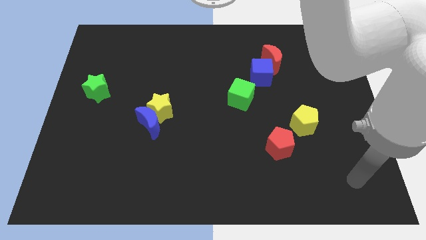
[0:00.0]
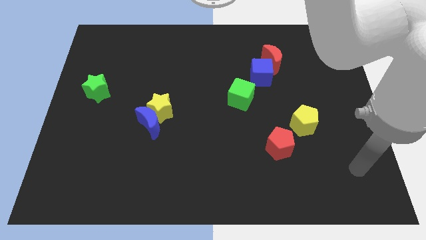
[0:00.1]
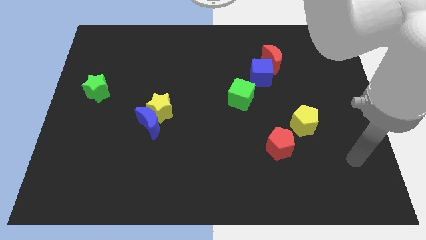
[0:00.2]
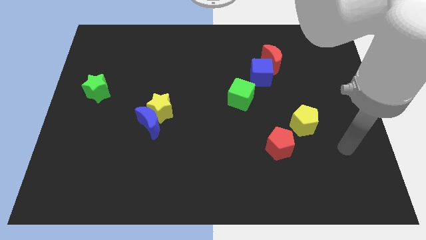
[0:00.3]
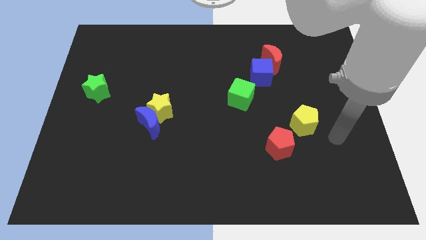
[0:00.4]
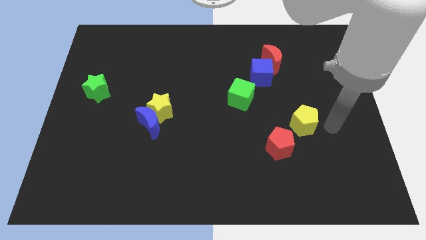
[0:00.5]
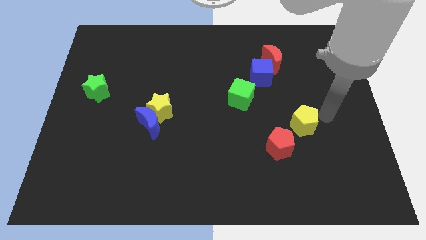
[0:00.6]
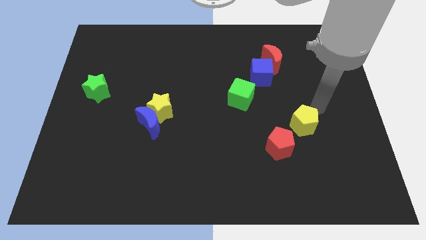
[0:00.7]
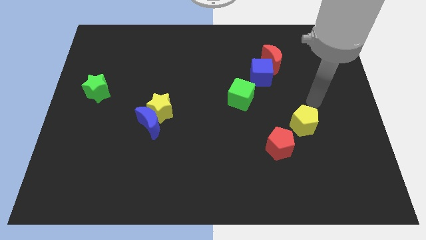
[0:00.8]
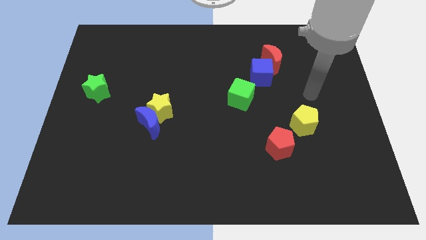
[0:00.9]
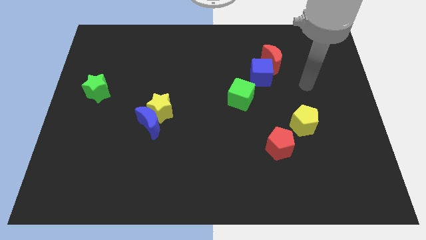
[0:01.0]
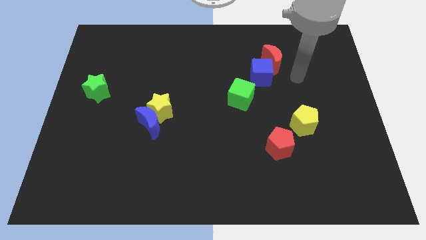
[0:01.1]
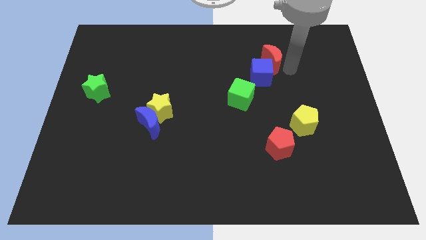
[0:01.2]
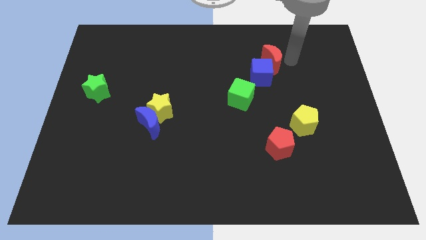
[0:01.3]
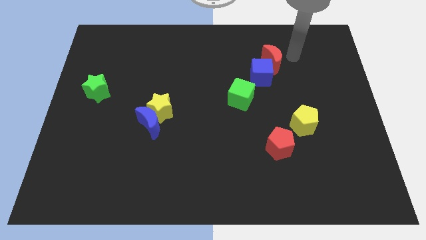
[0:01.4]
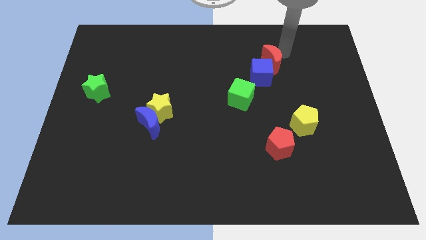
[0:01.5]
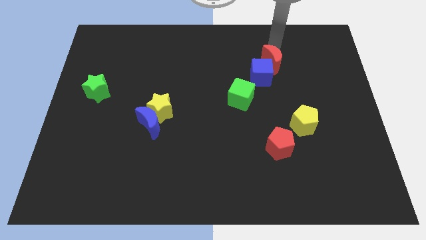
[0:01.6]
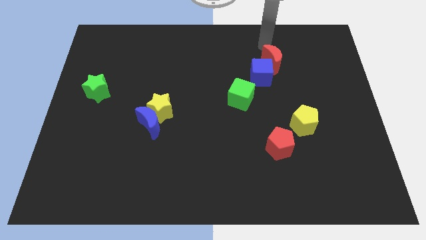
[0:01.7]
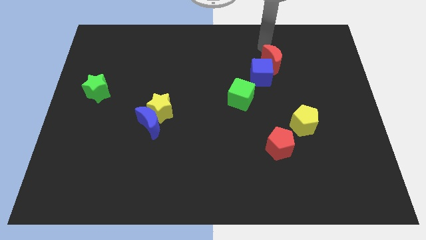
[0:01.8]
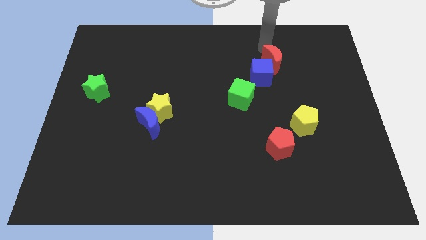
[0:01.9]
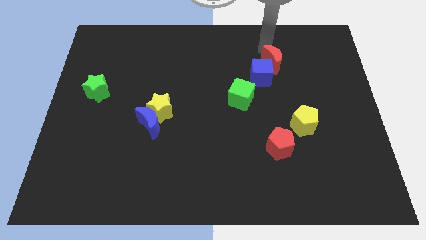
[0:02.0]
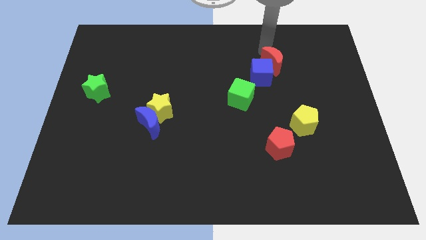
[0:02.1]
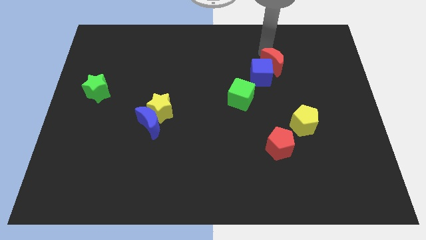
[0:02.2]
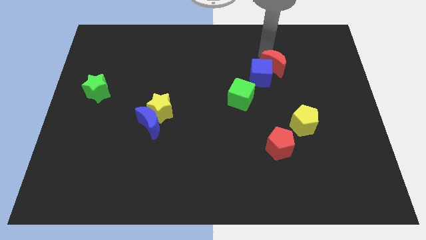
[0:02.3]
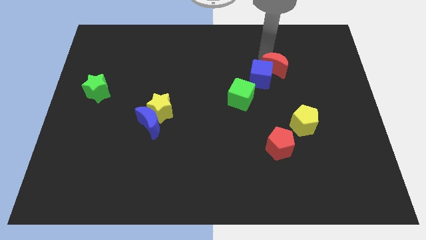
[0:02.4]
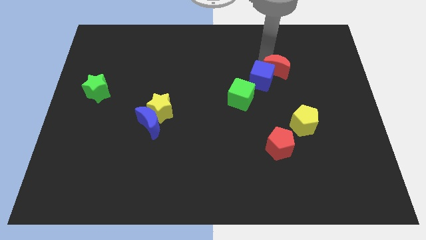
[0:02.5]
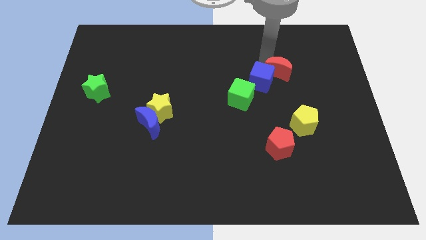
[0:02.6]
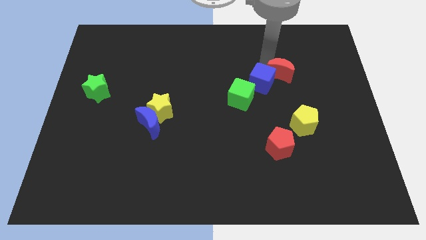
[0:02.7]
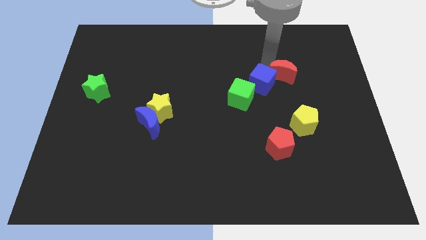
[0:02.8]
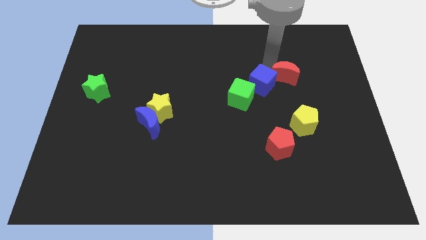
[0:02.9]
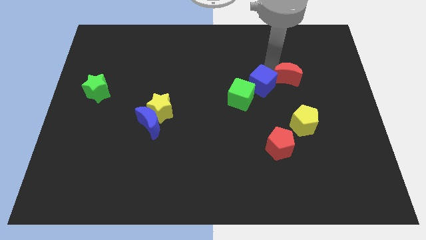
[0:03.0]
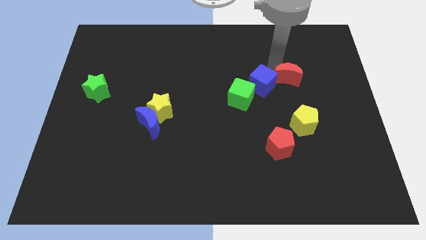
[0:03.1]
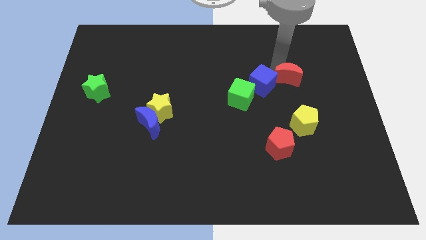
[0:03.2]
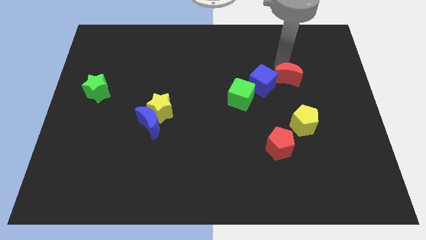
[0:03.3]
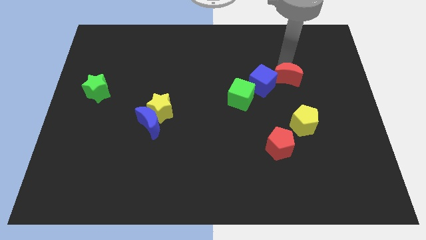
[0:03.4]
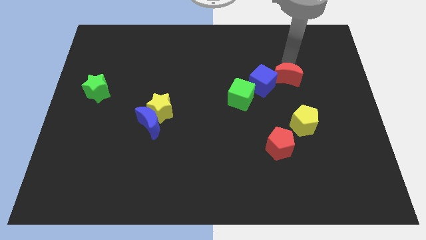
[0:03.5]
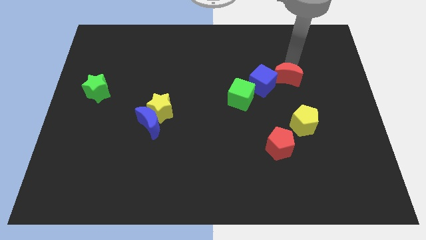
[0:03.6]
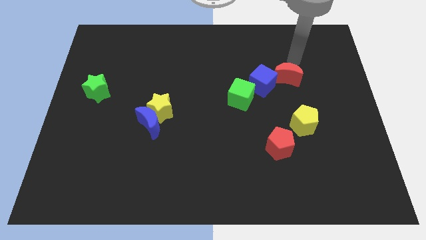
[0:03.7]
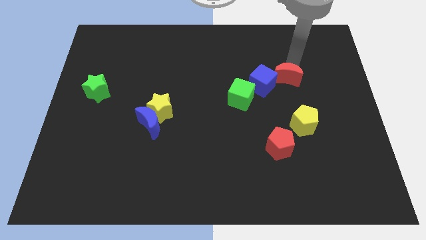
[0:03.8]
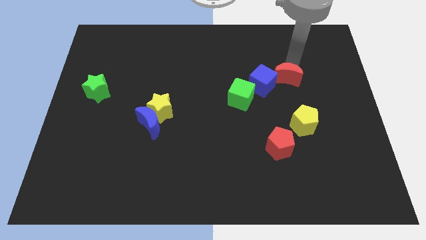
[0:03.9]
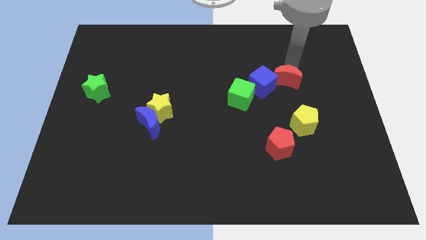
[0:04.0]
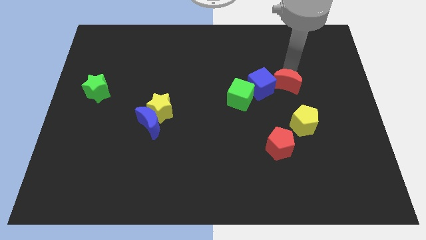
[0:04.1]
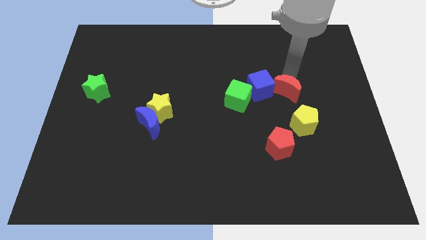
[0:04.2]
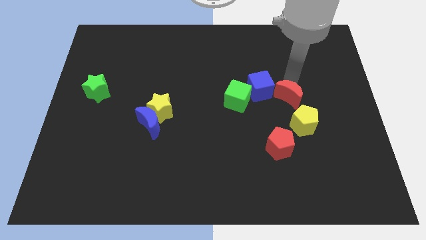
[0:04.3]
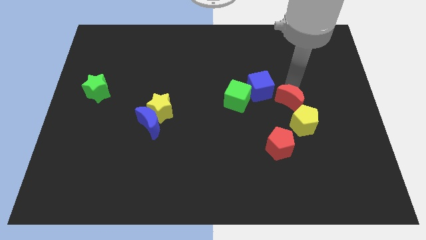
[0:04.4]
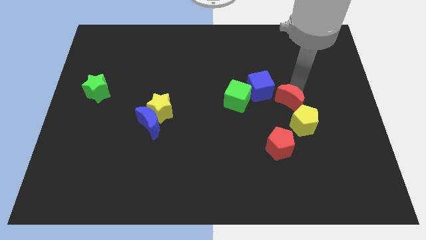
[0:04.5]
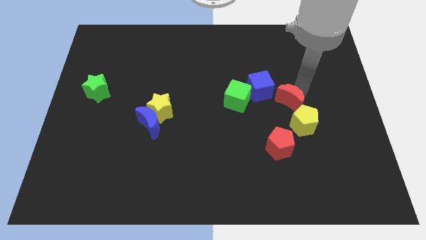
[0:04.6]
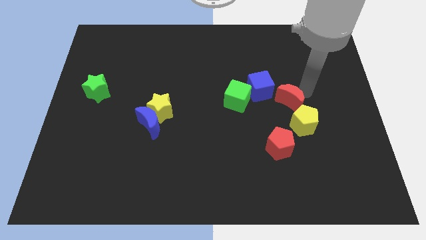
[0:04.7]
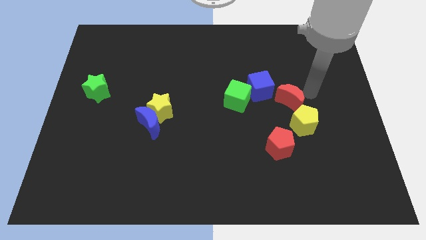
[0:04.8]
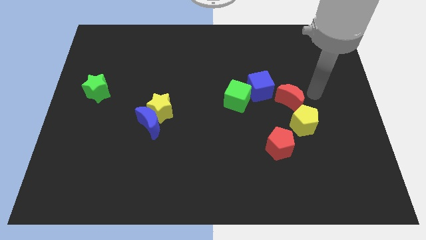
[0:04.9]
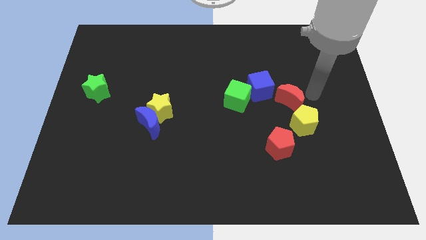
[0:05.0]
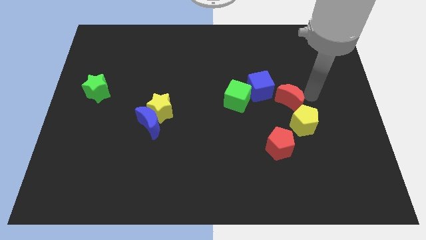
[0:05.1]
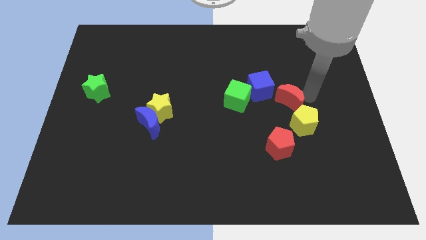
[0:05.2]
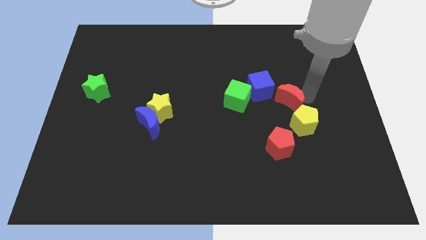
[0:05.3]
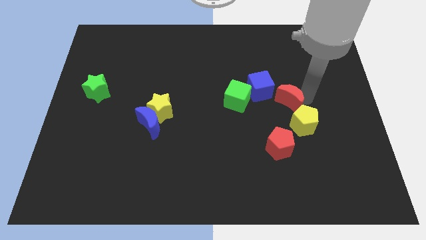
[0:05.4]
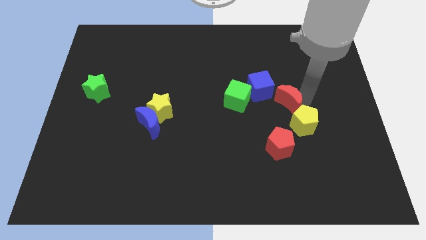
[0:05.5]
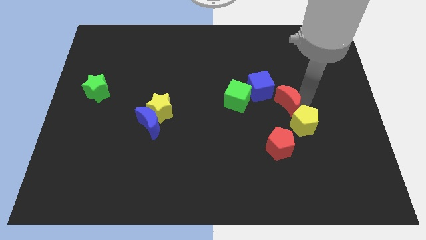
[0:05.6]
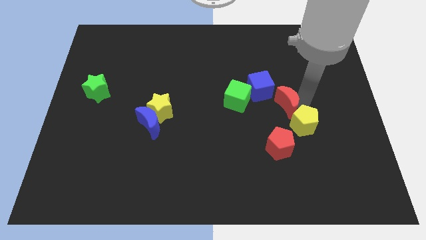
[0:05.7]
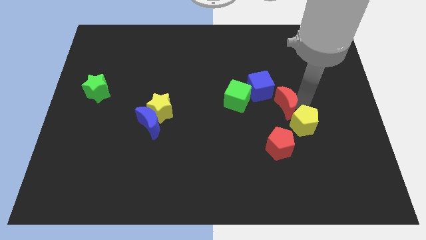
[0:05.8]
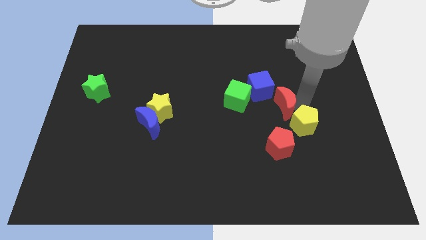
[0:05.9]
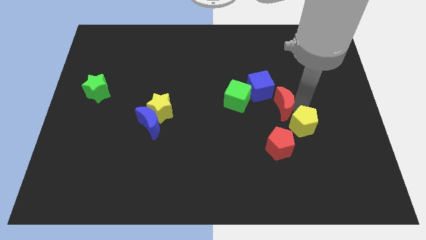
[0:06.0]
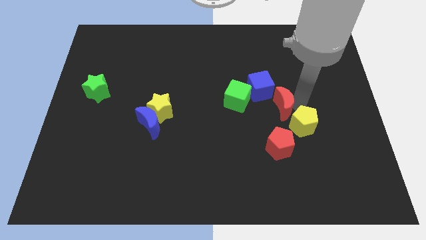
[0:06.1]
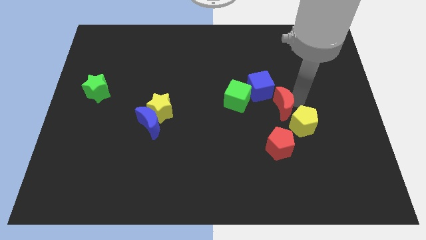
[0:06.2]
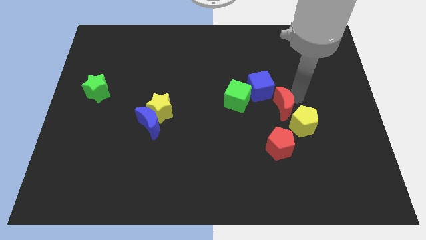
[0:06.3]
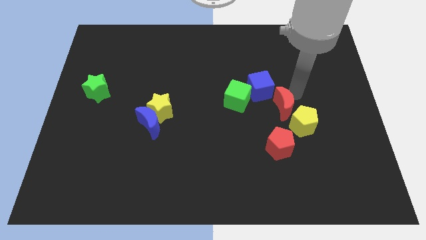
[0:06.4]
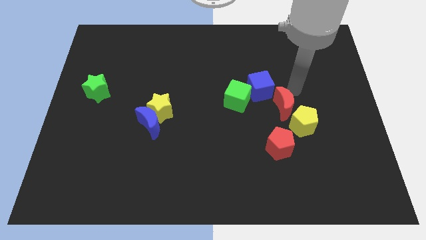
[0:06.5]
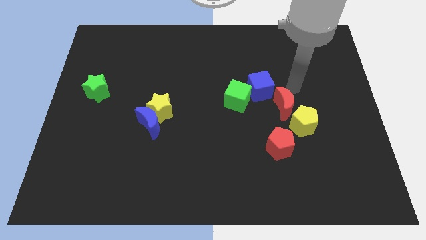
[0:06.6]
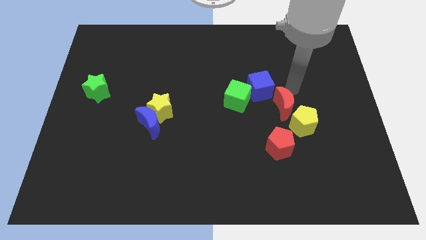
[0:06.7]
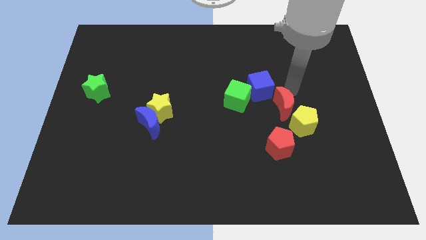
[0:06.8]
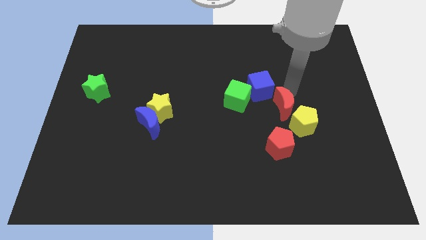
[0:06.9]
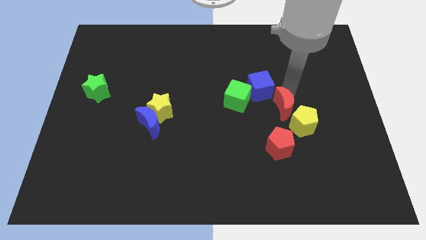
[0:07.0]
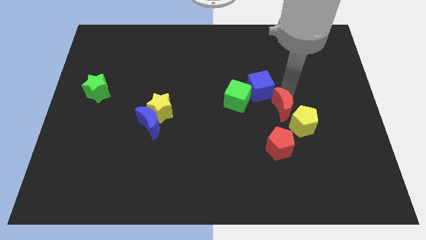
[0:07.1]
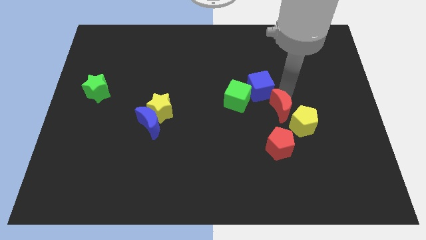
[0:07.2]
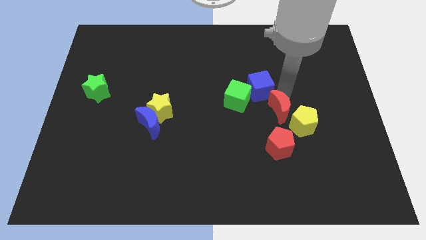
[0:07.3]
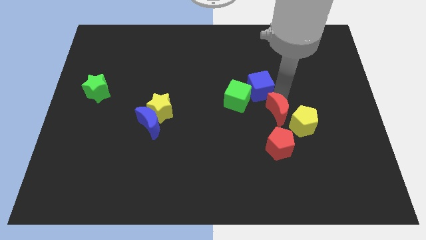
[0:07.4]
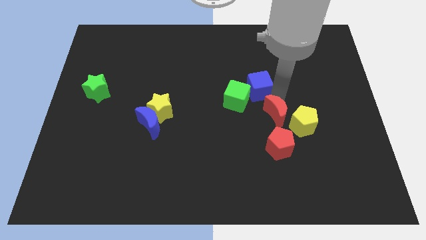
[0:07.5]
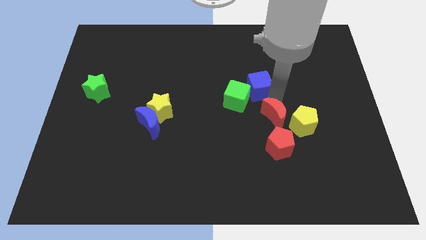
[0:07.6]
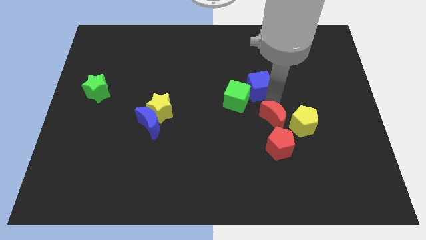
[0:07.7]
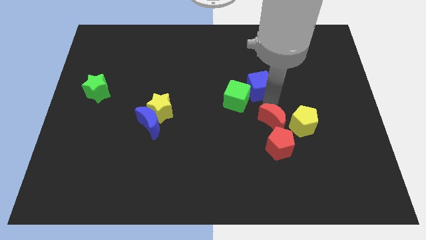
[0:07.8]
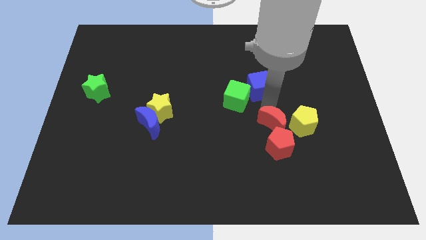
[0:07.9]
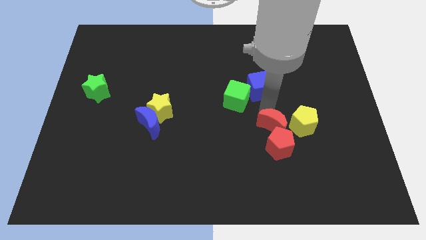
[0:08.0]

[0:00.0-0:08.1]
push the red moon close to the red pentagon
